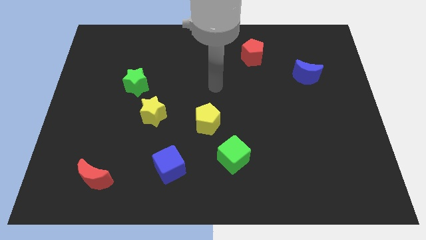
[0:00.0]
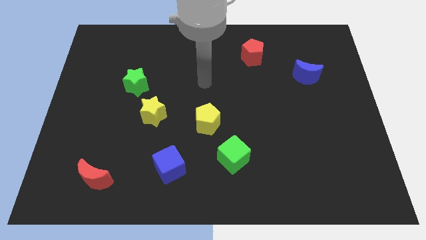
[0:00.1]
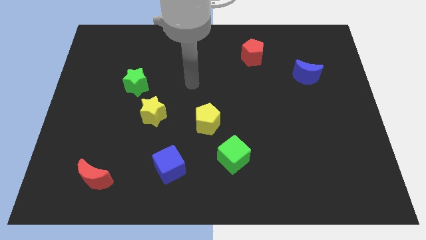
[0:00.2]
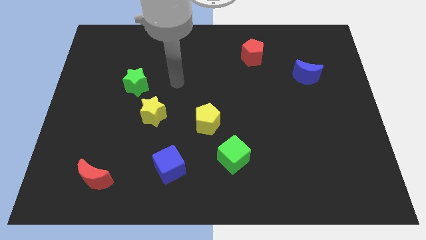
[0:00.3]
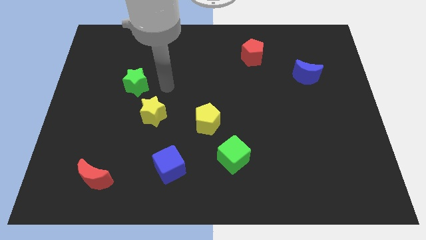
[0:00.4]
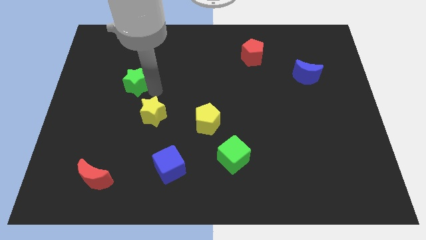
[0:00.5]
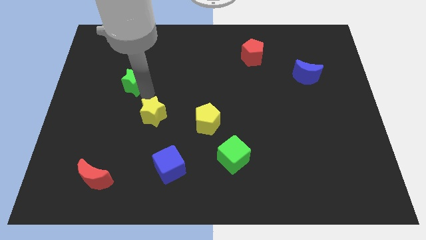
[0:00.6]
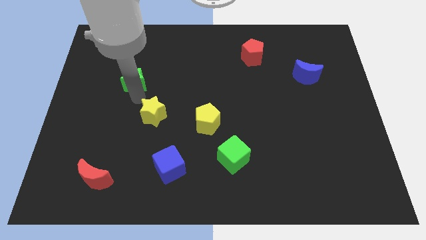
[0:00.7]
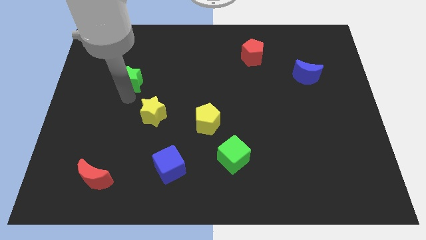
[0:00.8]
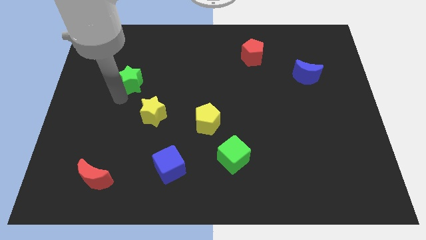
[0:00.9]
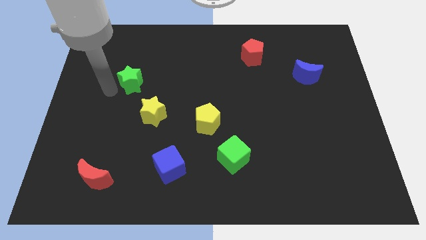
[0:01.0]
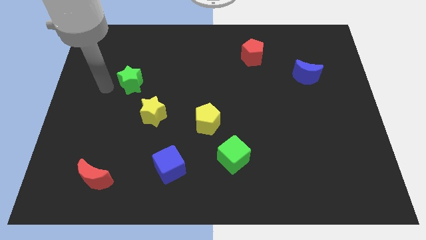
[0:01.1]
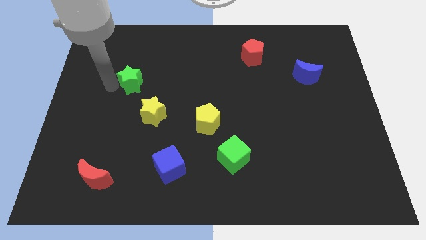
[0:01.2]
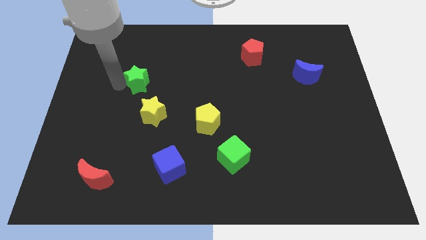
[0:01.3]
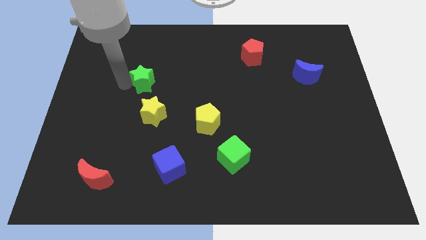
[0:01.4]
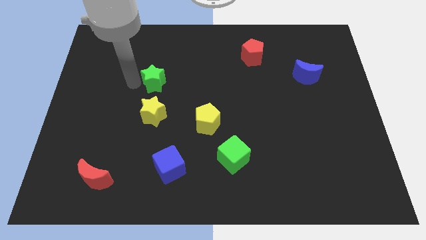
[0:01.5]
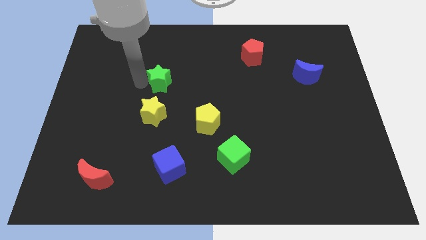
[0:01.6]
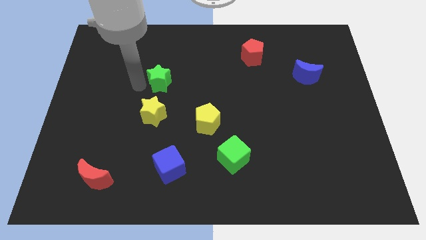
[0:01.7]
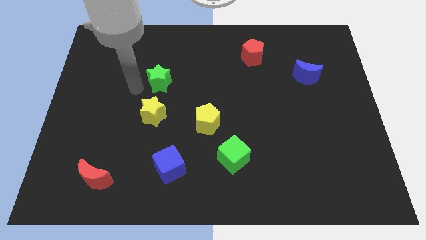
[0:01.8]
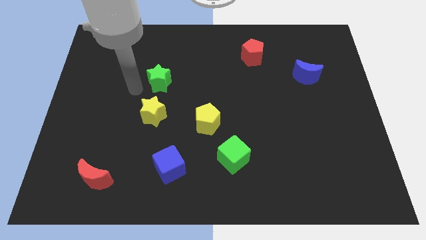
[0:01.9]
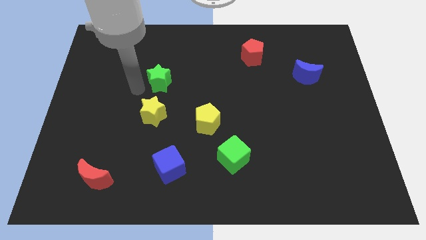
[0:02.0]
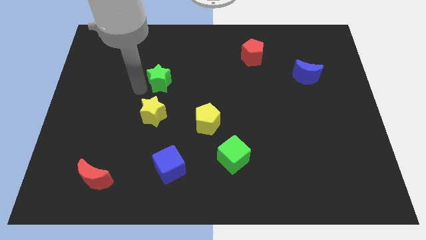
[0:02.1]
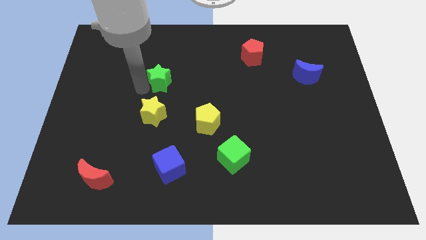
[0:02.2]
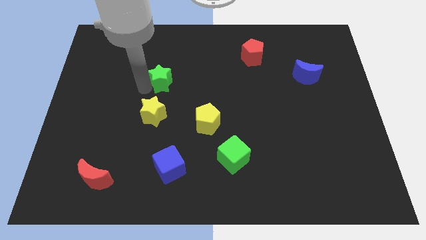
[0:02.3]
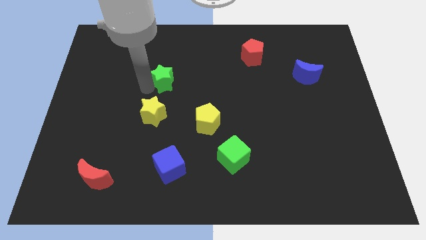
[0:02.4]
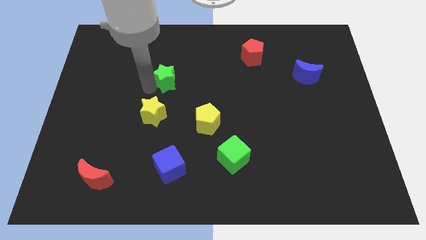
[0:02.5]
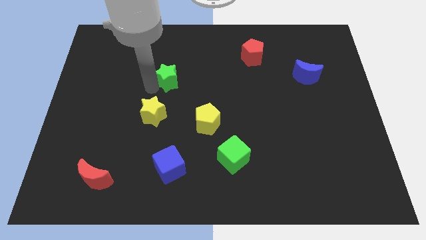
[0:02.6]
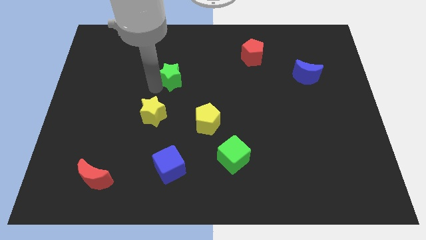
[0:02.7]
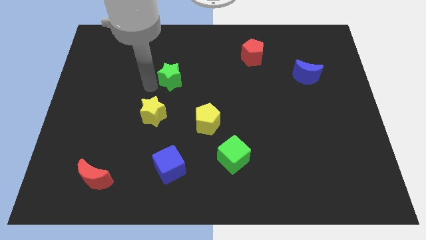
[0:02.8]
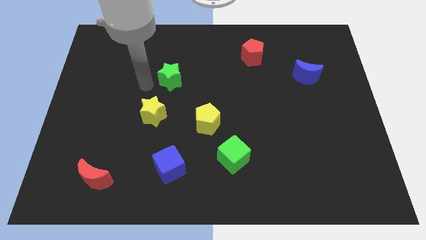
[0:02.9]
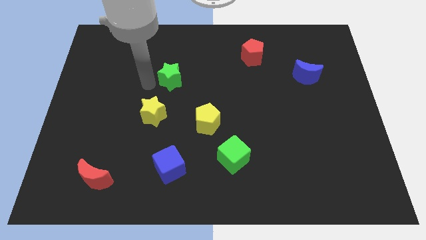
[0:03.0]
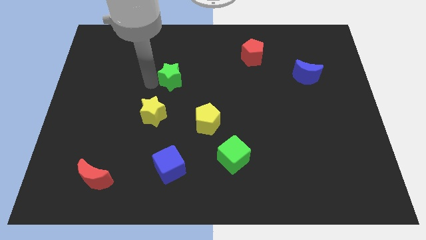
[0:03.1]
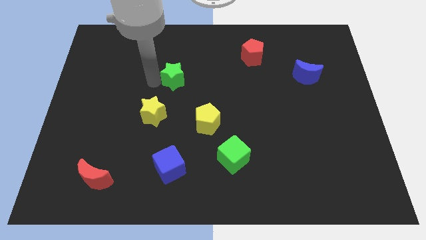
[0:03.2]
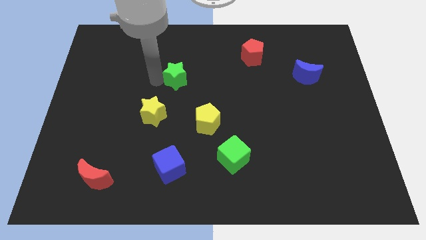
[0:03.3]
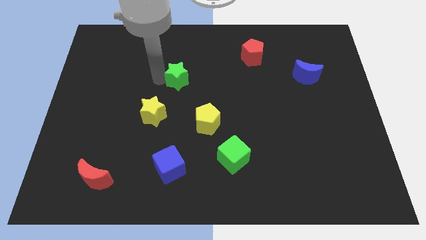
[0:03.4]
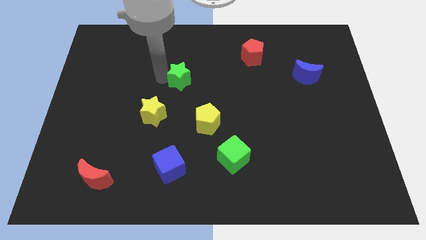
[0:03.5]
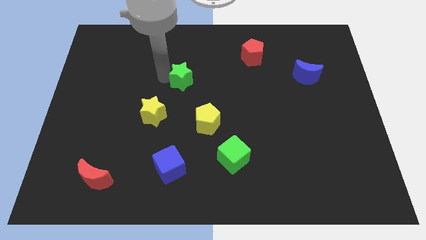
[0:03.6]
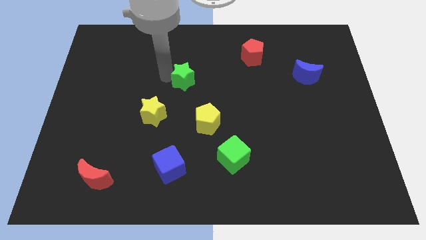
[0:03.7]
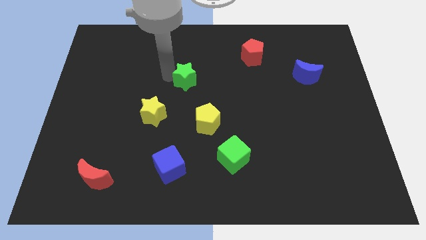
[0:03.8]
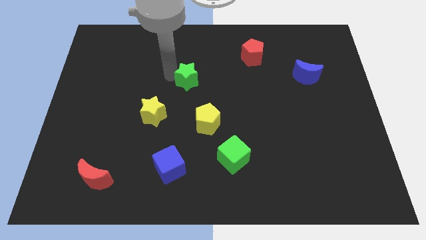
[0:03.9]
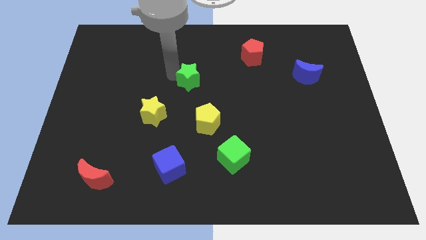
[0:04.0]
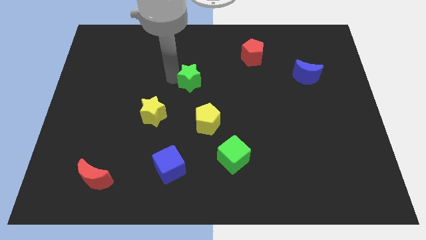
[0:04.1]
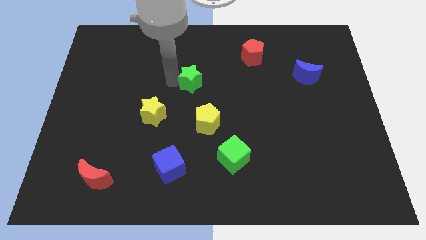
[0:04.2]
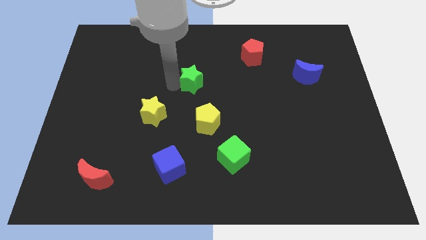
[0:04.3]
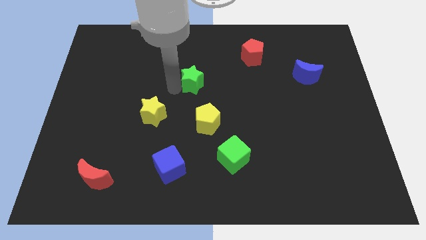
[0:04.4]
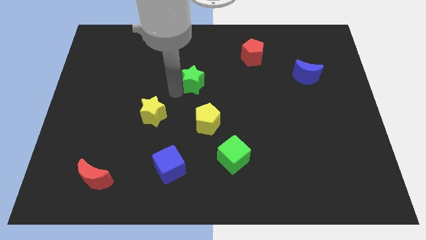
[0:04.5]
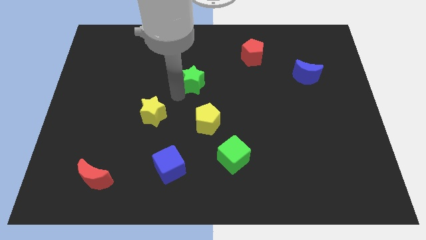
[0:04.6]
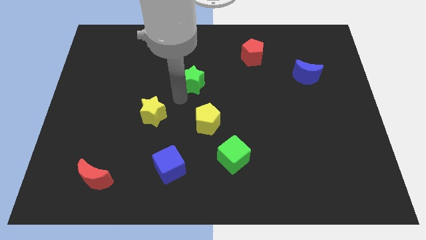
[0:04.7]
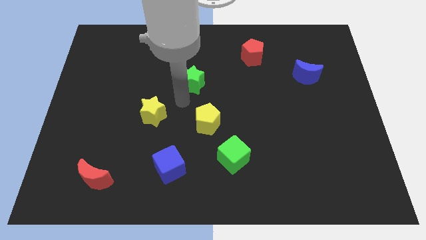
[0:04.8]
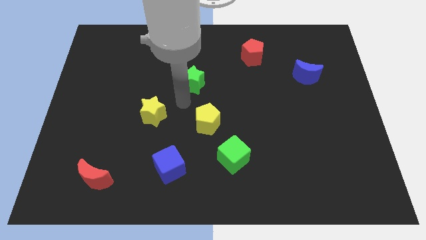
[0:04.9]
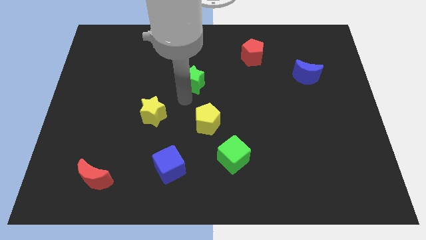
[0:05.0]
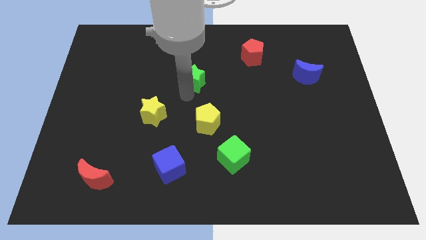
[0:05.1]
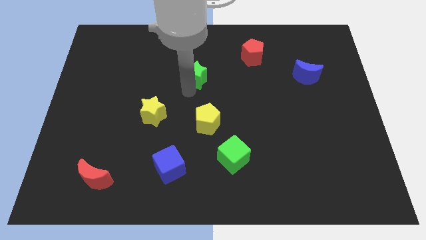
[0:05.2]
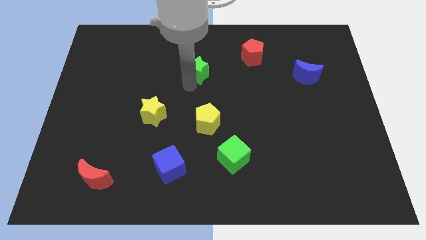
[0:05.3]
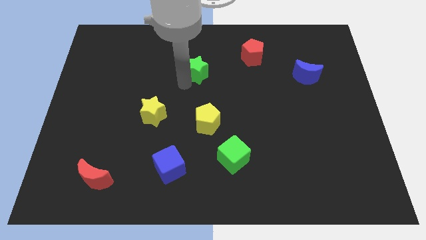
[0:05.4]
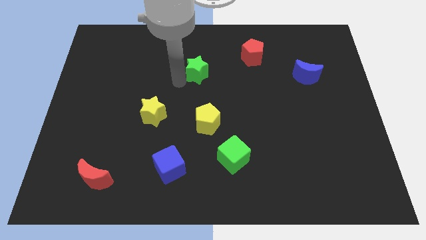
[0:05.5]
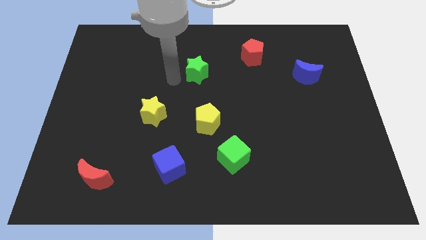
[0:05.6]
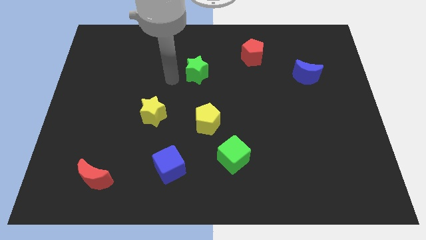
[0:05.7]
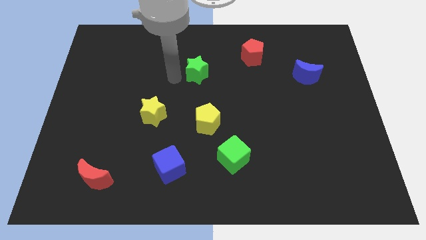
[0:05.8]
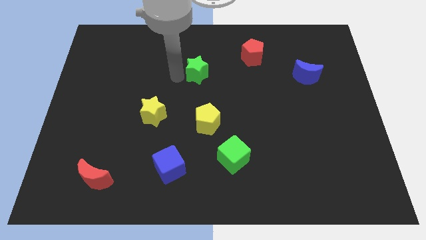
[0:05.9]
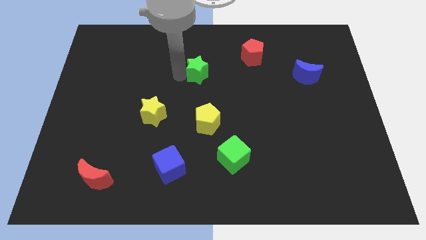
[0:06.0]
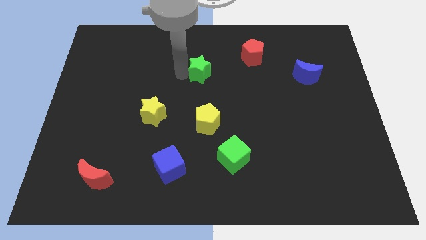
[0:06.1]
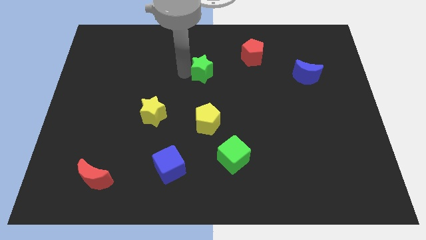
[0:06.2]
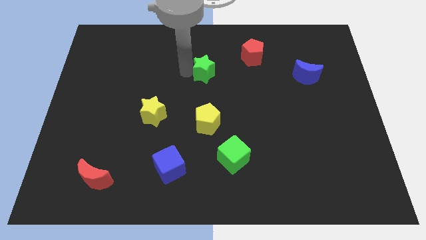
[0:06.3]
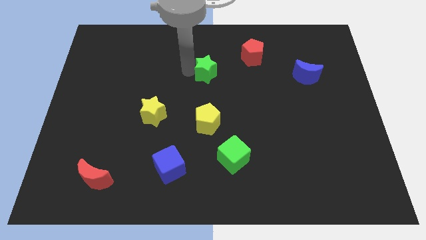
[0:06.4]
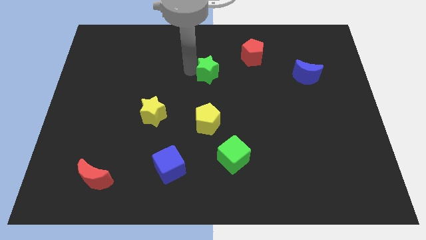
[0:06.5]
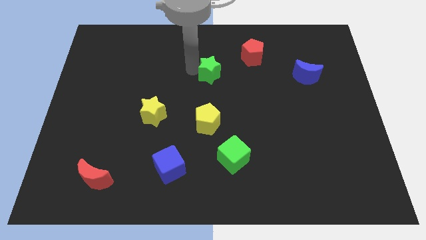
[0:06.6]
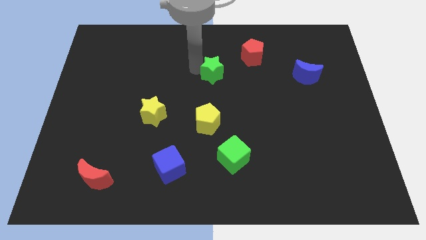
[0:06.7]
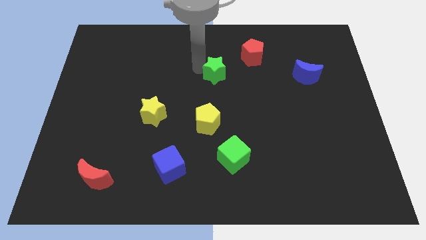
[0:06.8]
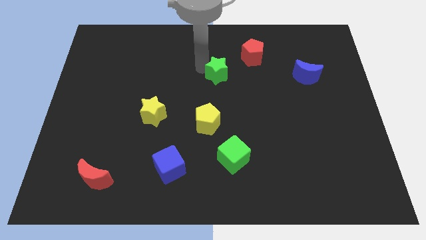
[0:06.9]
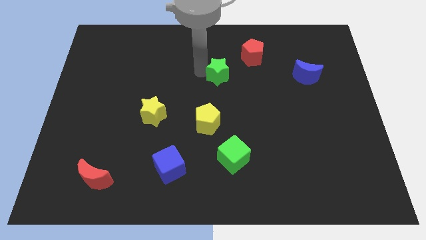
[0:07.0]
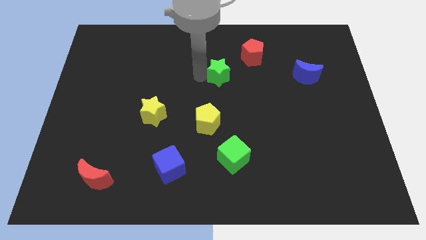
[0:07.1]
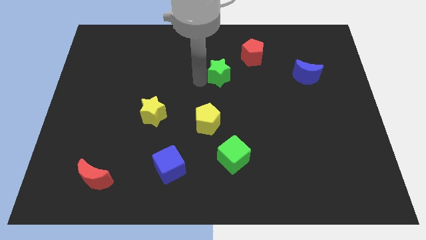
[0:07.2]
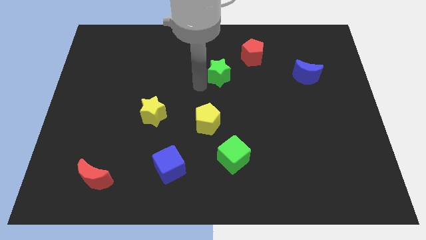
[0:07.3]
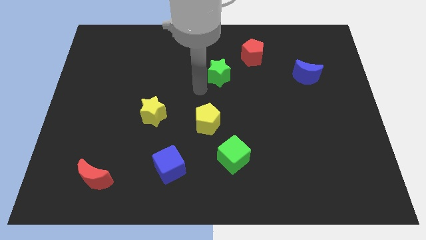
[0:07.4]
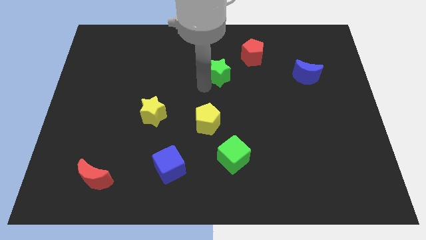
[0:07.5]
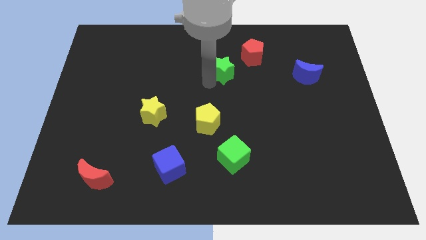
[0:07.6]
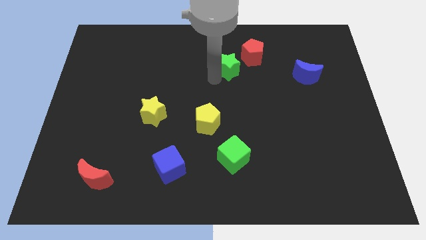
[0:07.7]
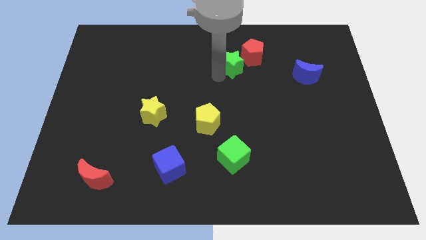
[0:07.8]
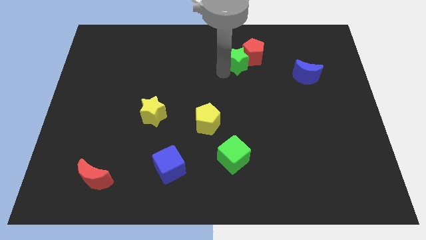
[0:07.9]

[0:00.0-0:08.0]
move the green star next to the red pentagon

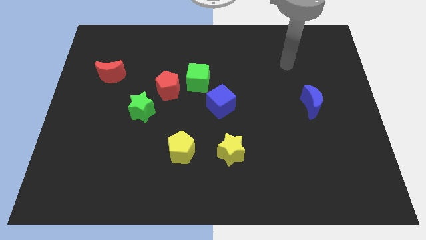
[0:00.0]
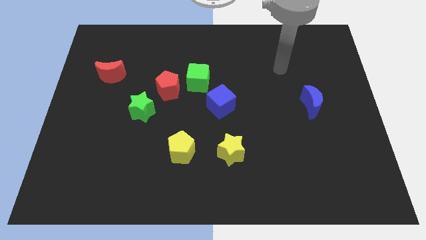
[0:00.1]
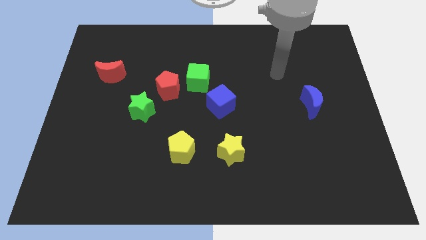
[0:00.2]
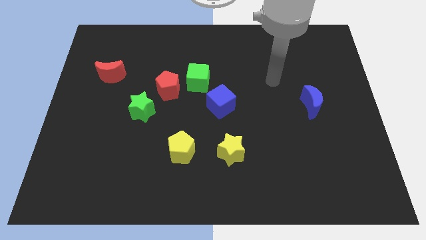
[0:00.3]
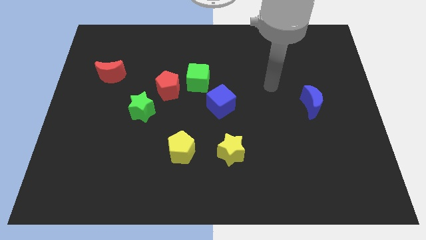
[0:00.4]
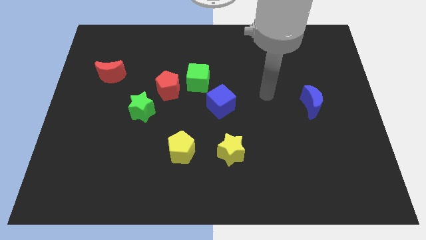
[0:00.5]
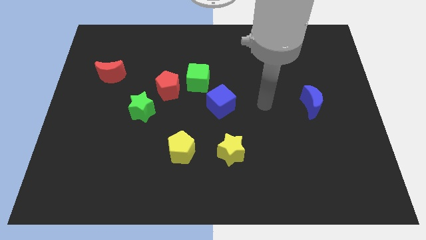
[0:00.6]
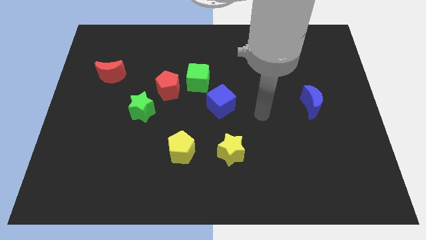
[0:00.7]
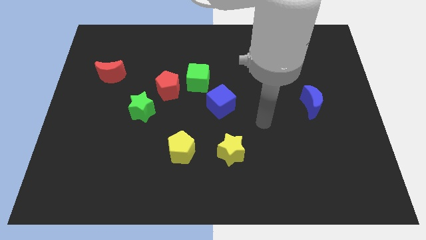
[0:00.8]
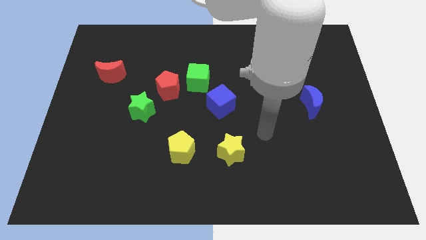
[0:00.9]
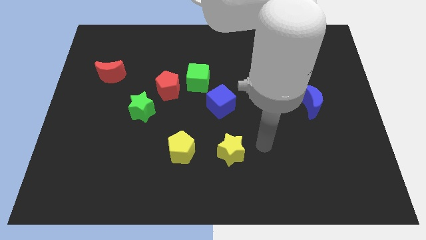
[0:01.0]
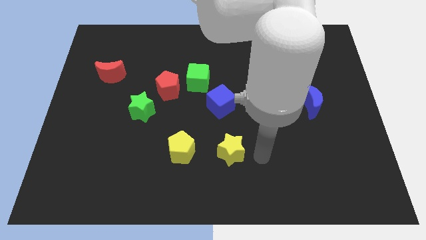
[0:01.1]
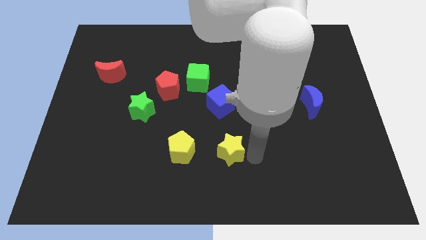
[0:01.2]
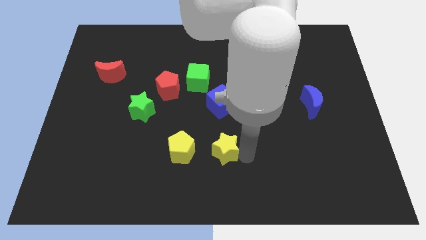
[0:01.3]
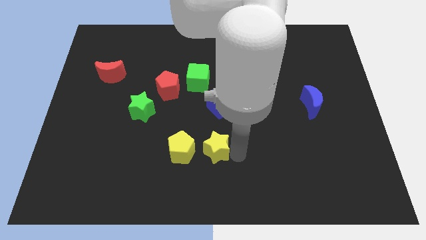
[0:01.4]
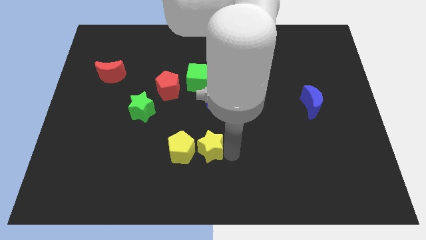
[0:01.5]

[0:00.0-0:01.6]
slide the yellow star towards the yellow pentagon
